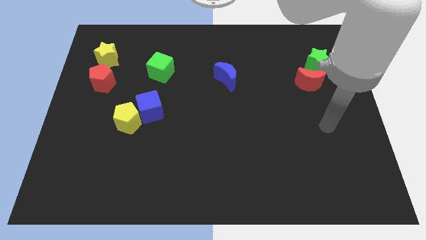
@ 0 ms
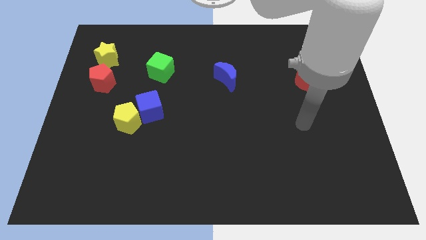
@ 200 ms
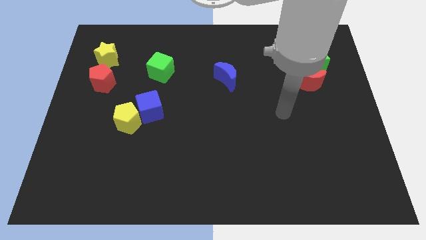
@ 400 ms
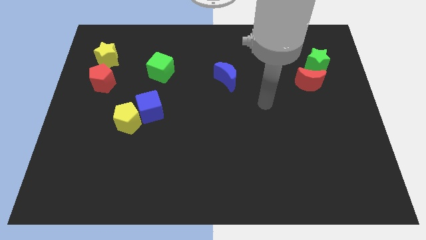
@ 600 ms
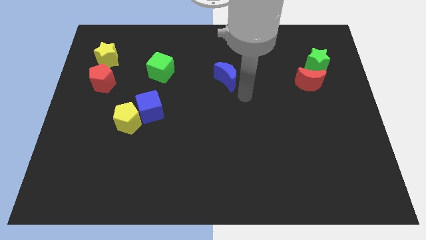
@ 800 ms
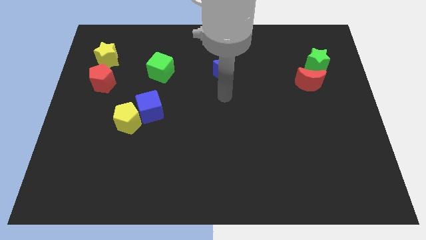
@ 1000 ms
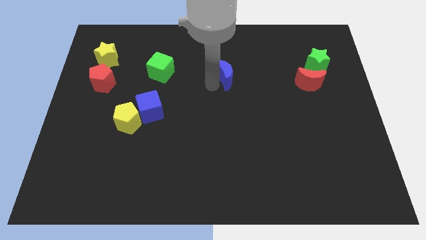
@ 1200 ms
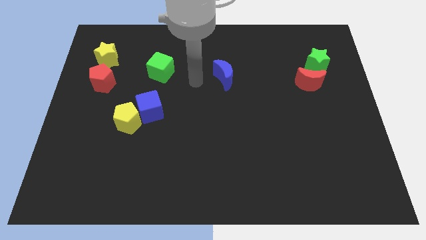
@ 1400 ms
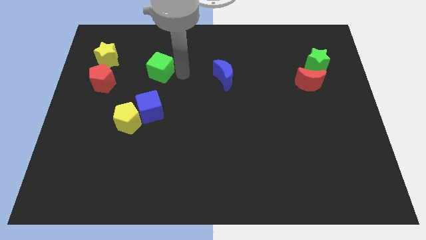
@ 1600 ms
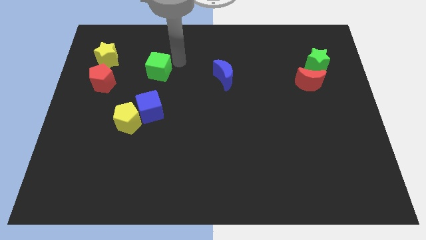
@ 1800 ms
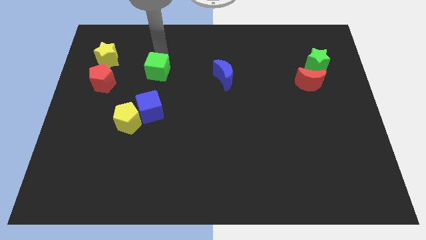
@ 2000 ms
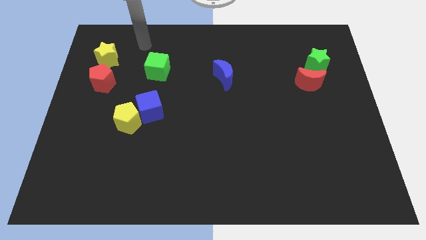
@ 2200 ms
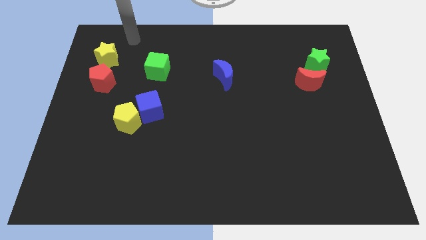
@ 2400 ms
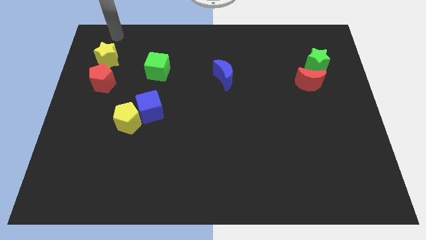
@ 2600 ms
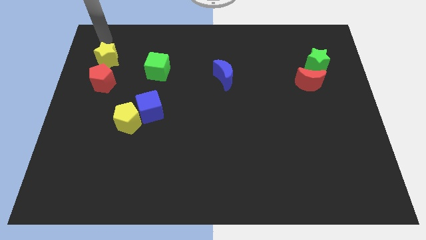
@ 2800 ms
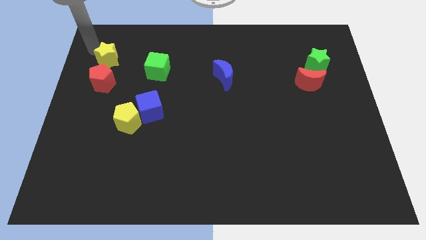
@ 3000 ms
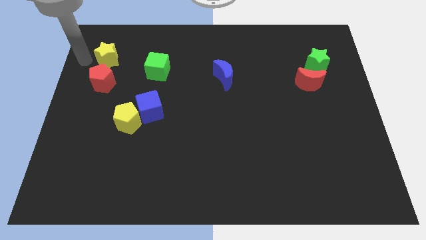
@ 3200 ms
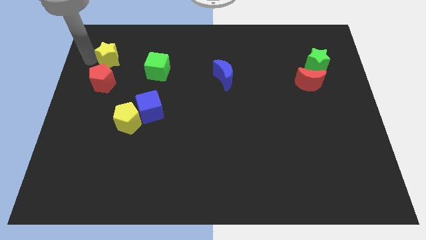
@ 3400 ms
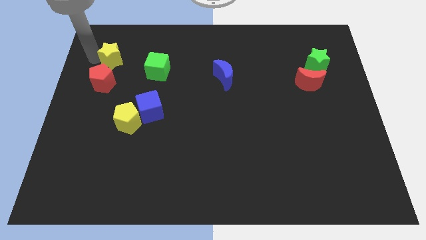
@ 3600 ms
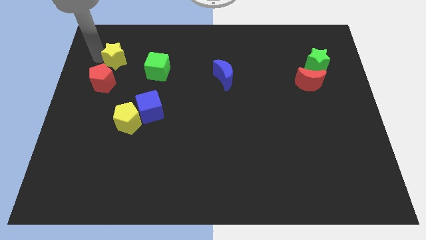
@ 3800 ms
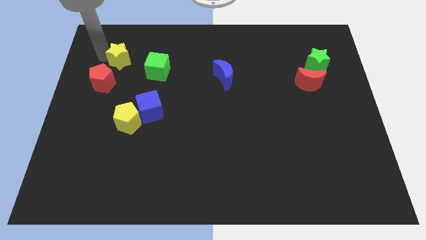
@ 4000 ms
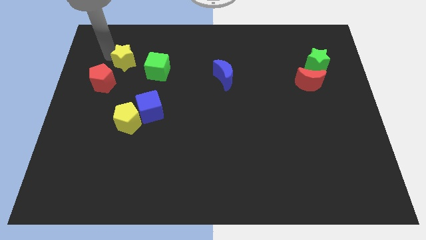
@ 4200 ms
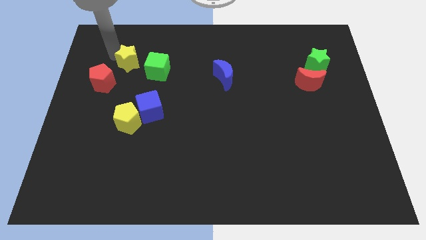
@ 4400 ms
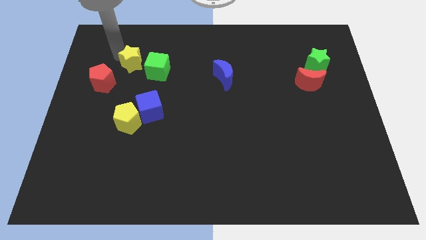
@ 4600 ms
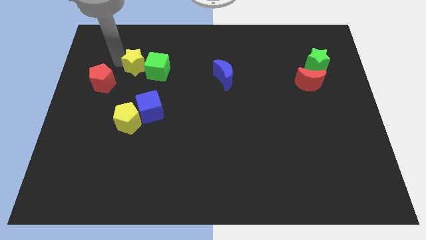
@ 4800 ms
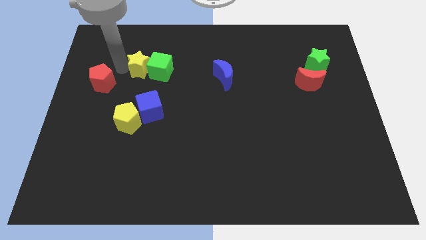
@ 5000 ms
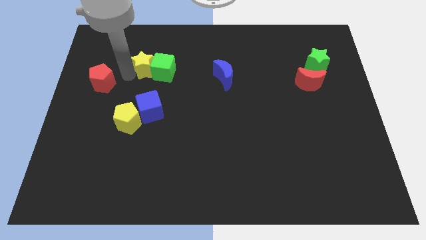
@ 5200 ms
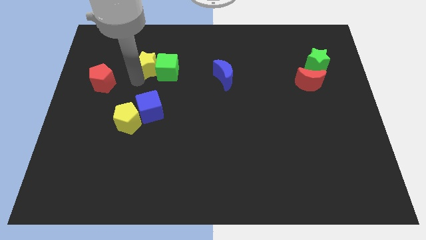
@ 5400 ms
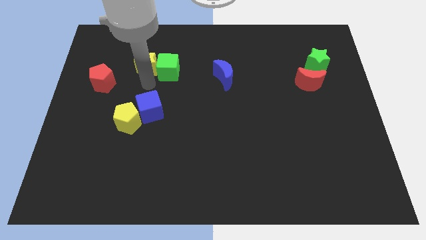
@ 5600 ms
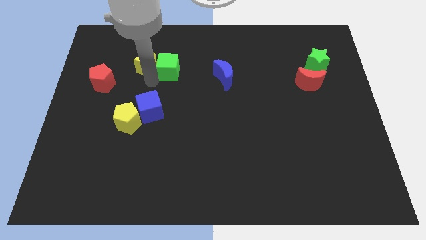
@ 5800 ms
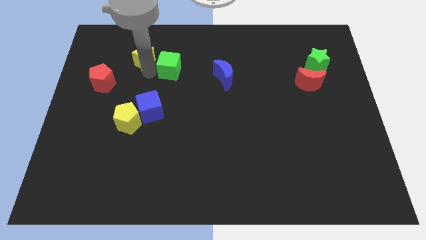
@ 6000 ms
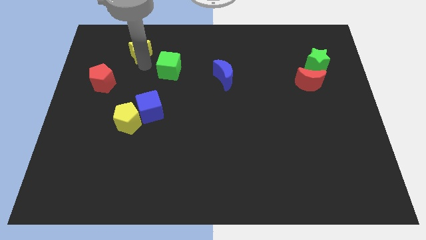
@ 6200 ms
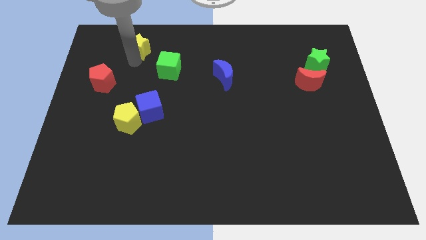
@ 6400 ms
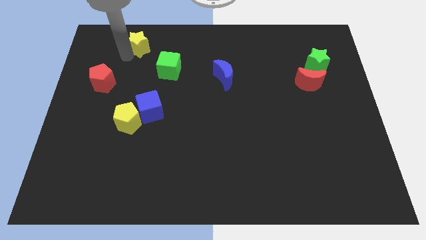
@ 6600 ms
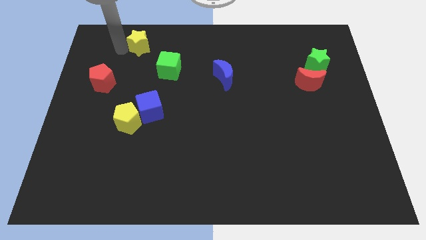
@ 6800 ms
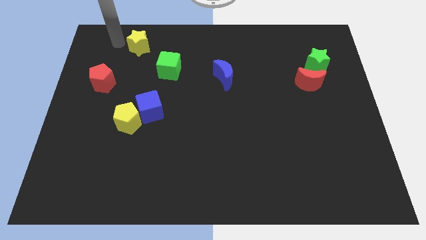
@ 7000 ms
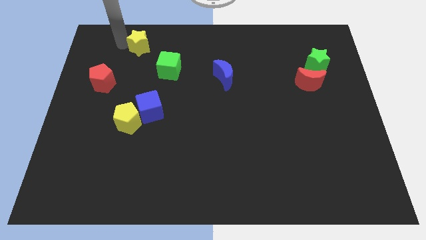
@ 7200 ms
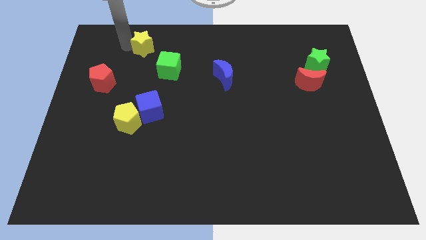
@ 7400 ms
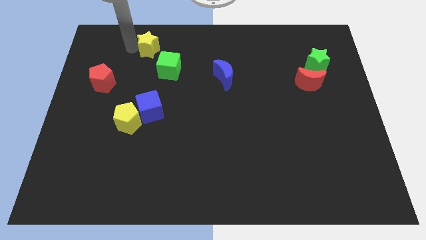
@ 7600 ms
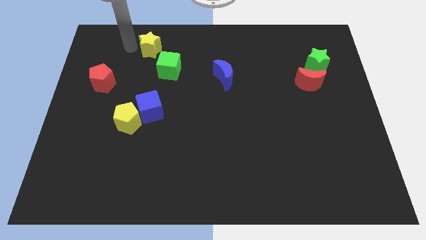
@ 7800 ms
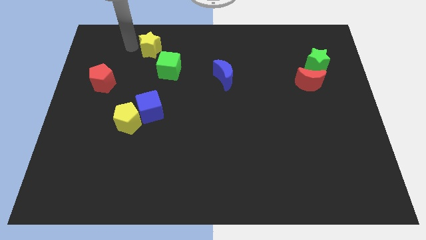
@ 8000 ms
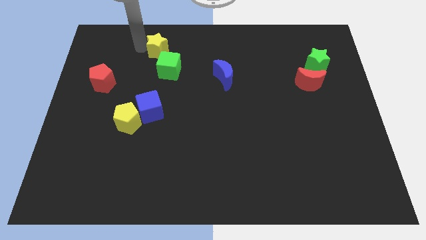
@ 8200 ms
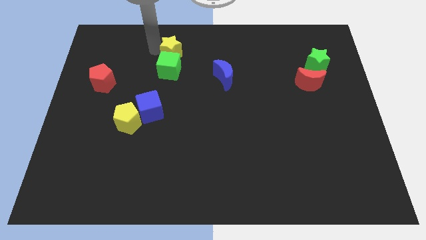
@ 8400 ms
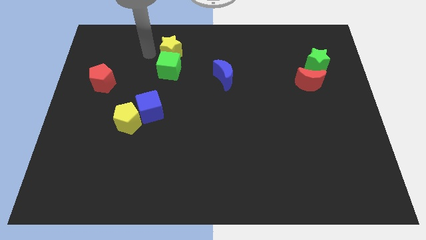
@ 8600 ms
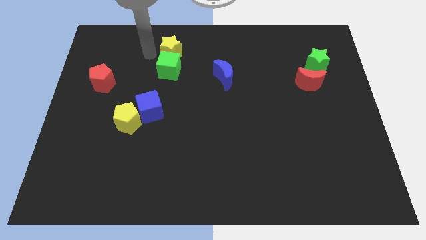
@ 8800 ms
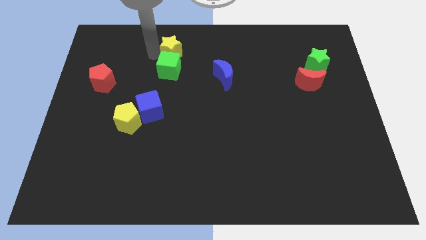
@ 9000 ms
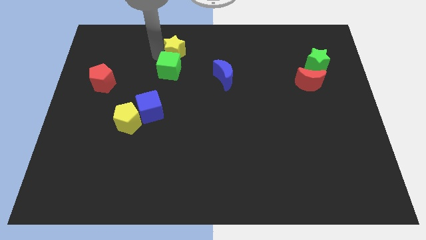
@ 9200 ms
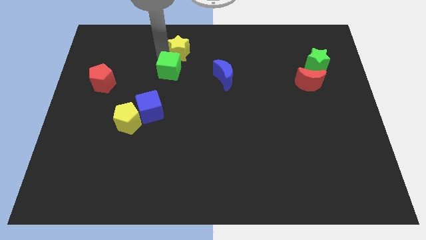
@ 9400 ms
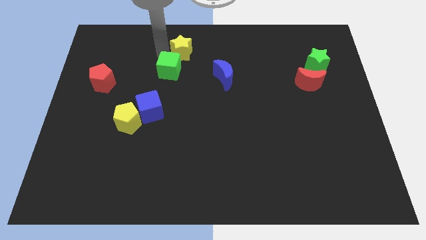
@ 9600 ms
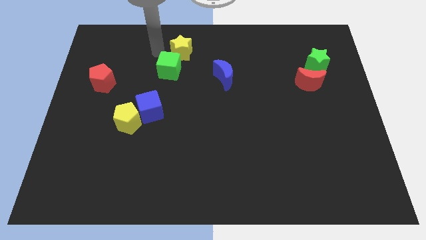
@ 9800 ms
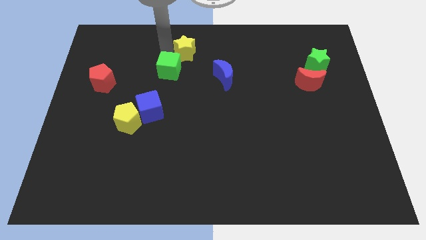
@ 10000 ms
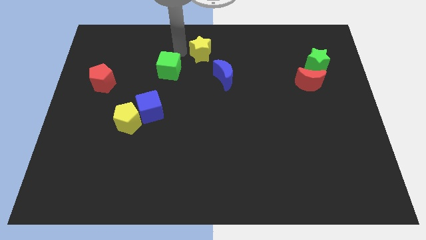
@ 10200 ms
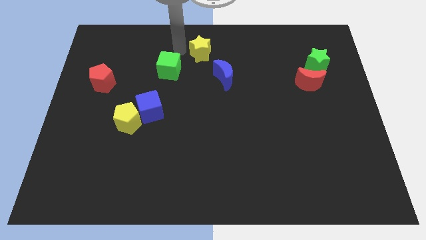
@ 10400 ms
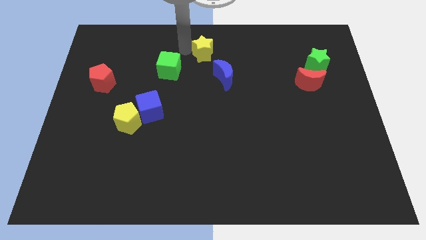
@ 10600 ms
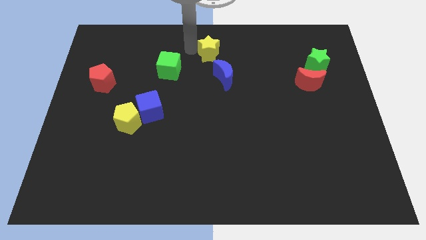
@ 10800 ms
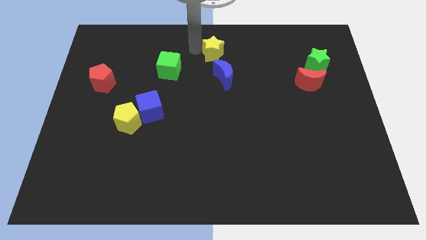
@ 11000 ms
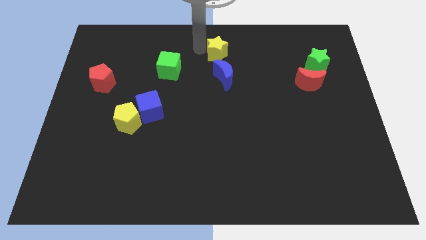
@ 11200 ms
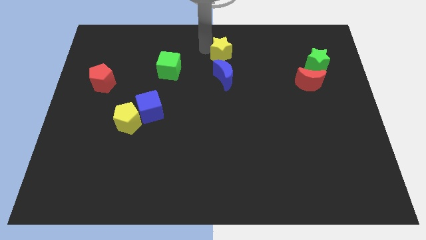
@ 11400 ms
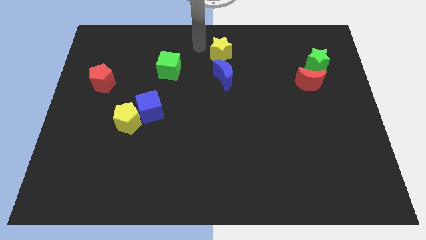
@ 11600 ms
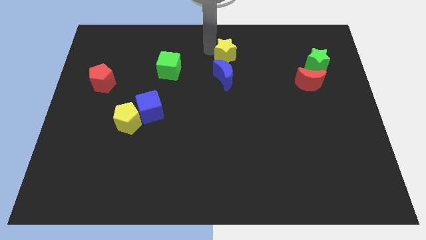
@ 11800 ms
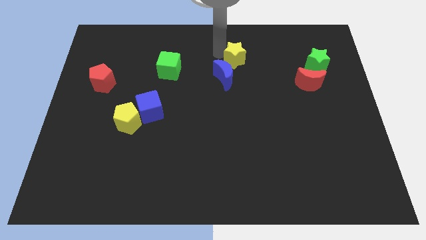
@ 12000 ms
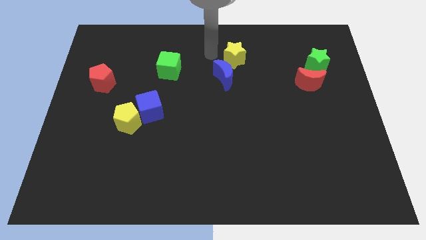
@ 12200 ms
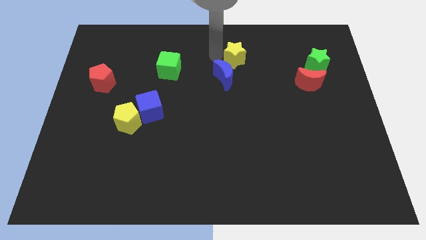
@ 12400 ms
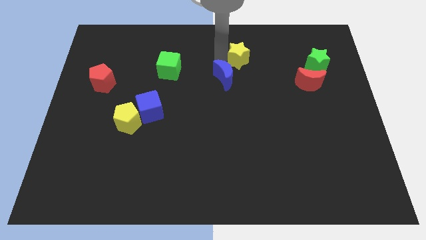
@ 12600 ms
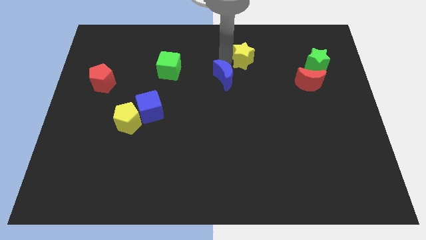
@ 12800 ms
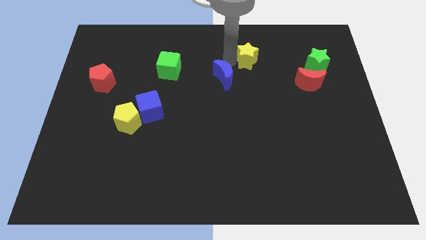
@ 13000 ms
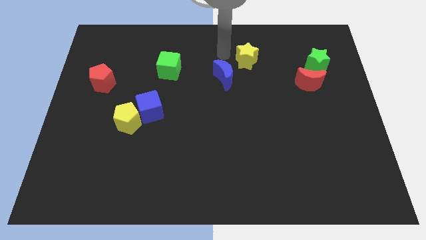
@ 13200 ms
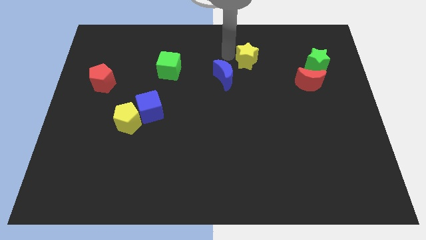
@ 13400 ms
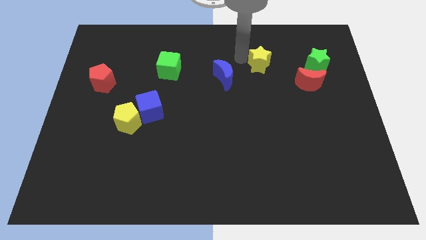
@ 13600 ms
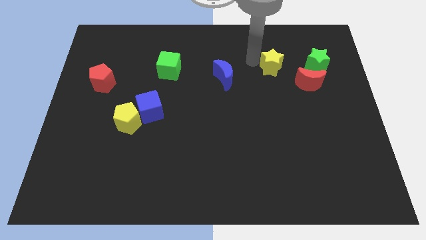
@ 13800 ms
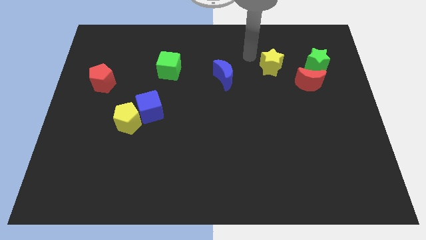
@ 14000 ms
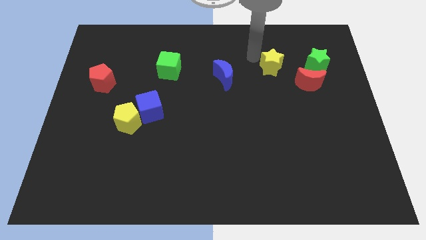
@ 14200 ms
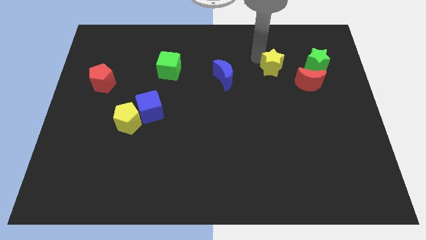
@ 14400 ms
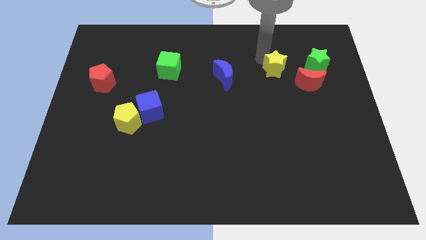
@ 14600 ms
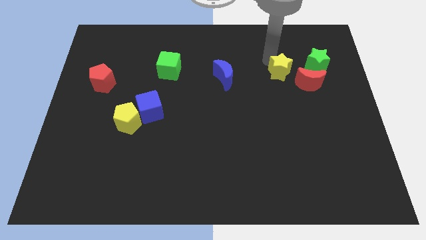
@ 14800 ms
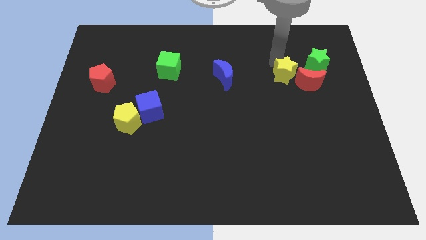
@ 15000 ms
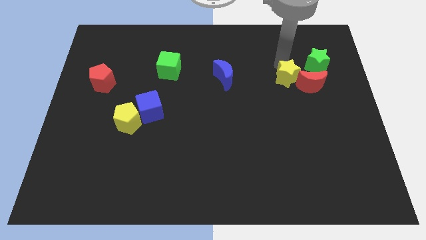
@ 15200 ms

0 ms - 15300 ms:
push the yellow star close to the red moon
